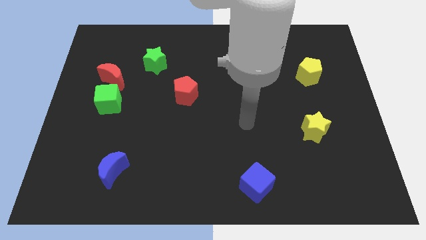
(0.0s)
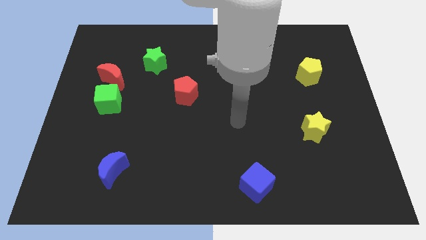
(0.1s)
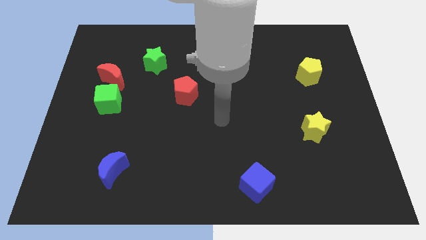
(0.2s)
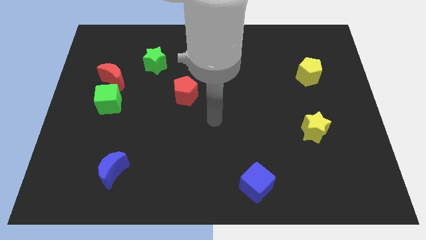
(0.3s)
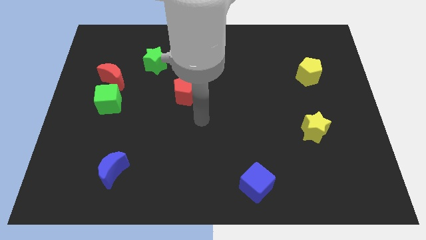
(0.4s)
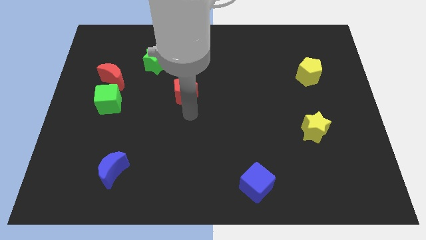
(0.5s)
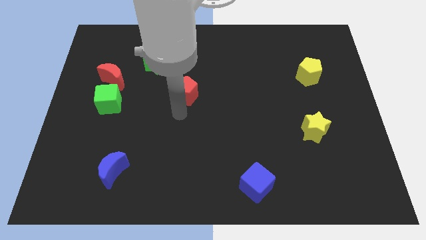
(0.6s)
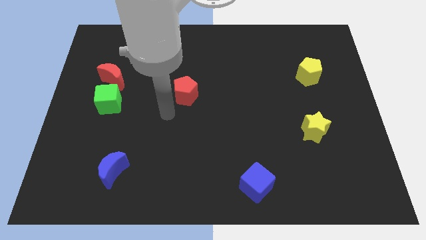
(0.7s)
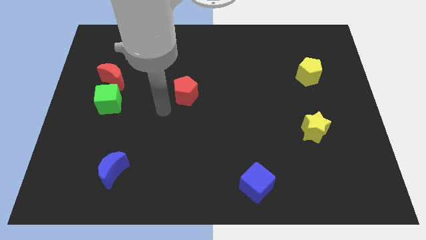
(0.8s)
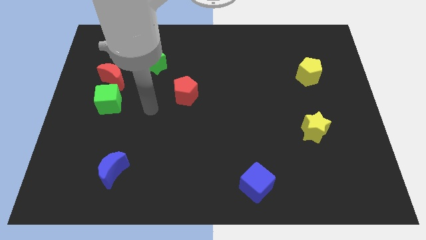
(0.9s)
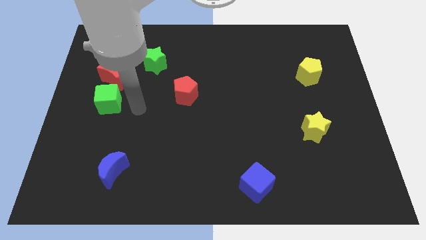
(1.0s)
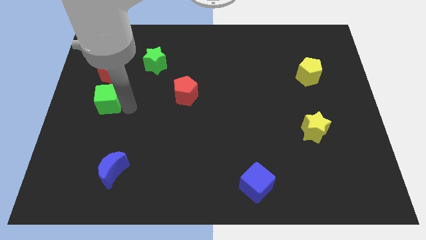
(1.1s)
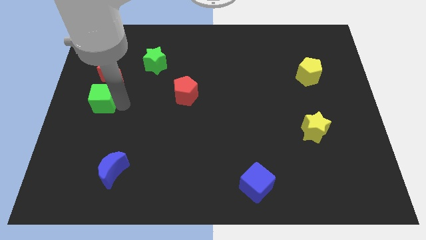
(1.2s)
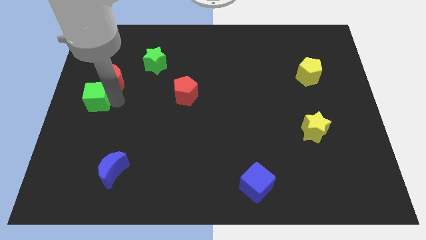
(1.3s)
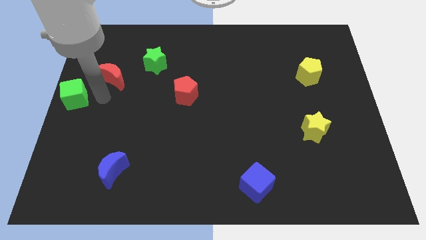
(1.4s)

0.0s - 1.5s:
separate the red moon from the green cube

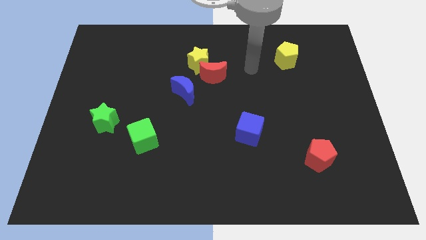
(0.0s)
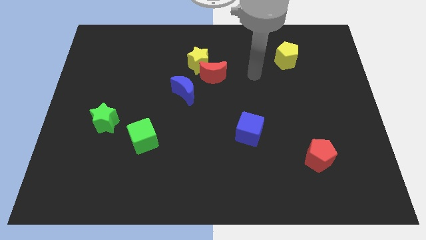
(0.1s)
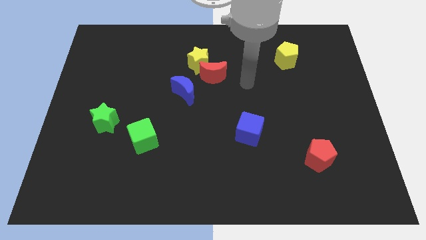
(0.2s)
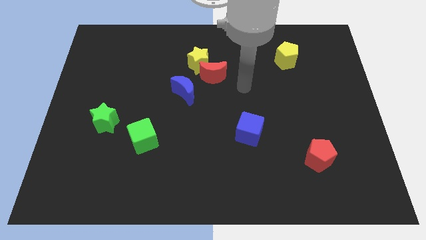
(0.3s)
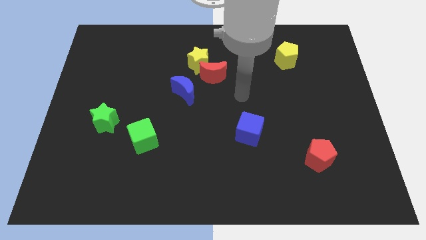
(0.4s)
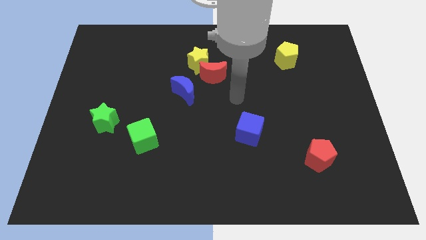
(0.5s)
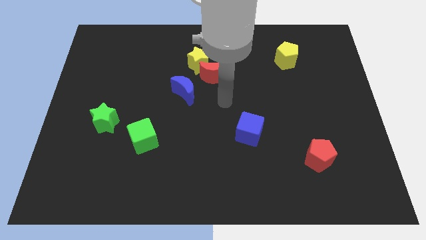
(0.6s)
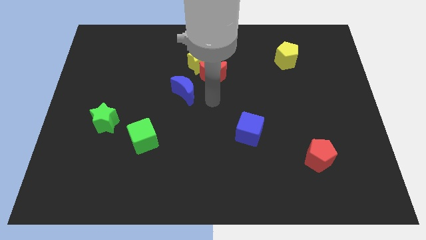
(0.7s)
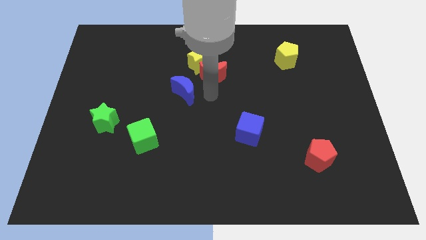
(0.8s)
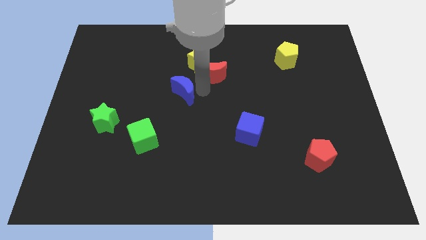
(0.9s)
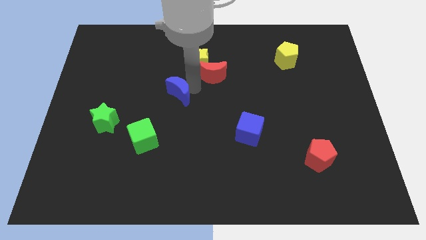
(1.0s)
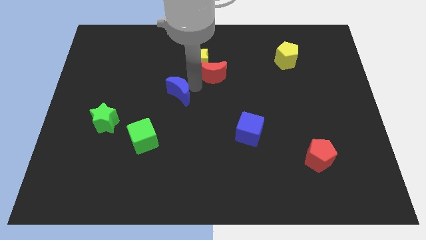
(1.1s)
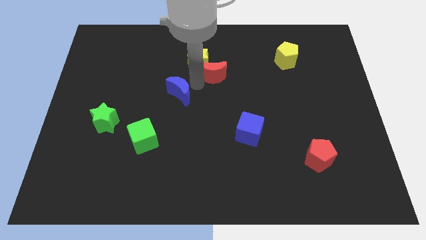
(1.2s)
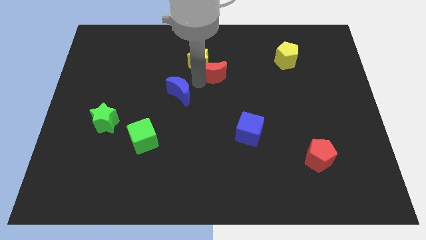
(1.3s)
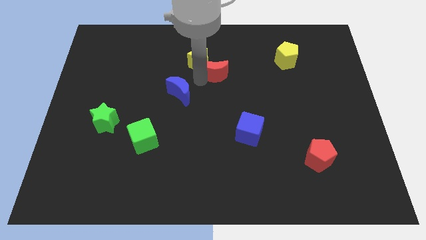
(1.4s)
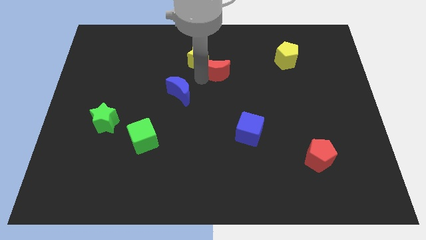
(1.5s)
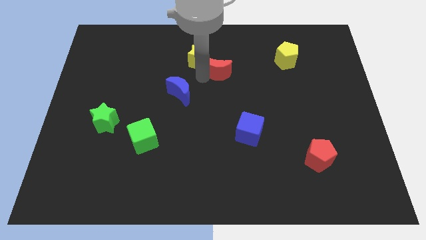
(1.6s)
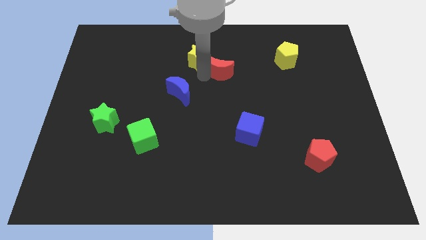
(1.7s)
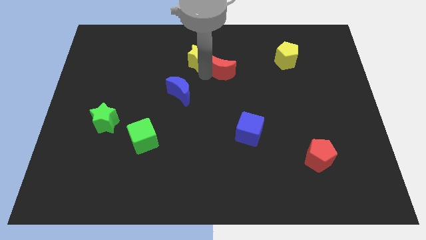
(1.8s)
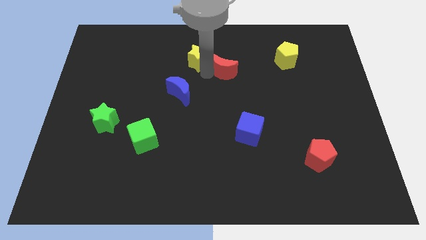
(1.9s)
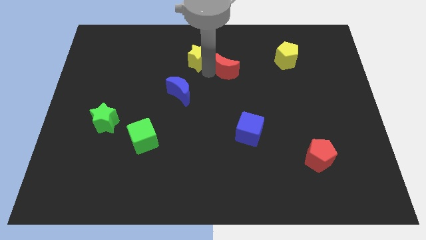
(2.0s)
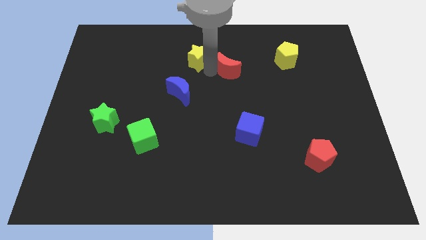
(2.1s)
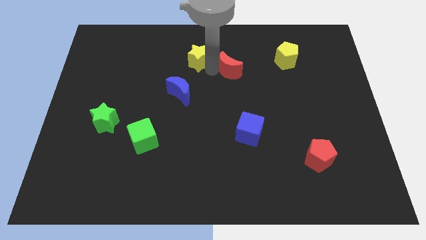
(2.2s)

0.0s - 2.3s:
move the red moon away from the yellow star and blue moon

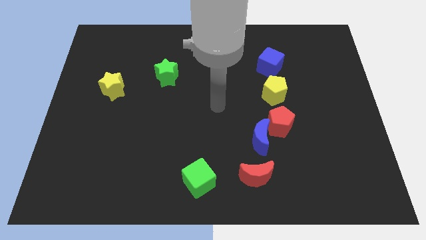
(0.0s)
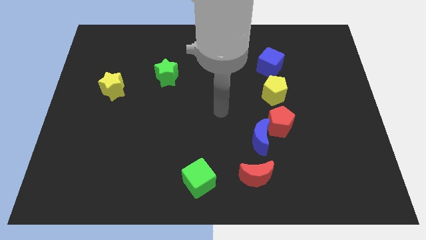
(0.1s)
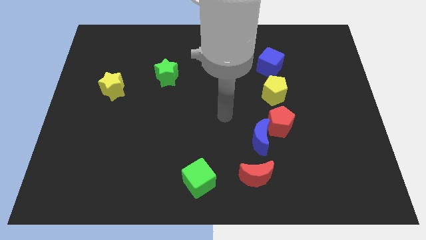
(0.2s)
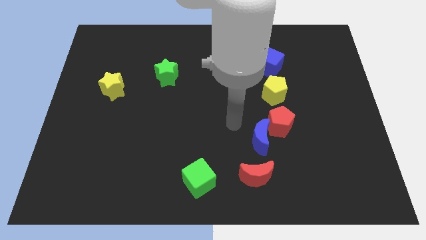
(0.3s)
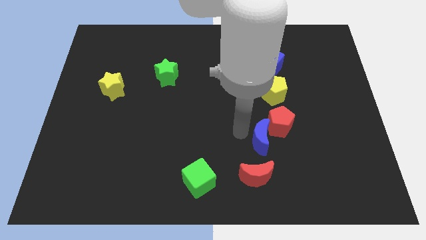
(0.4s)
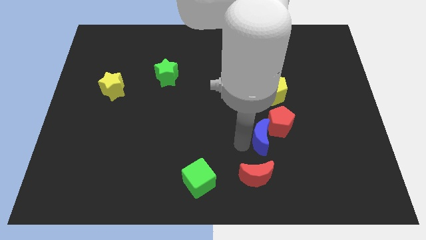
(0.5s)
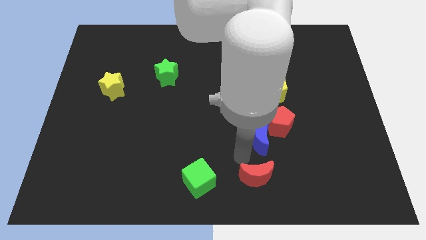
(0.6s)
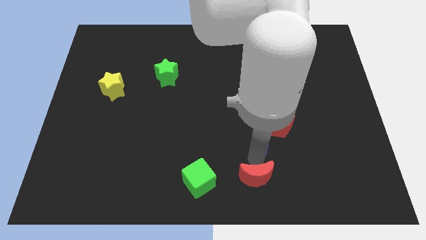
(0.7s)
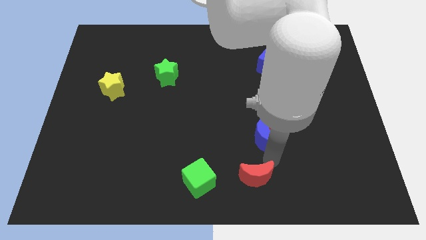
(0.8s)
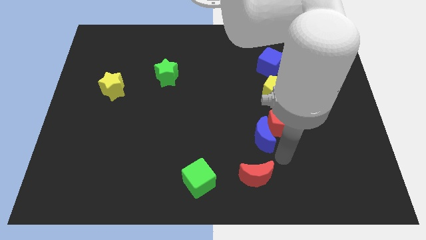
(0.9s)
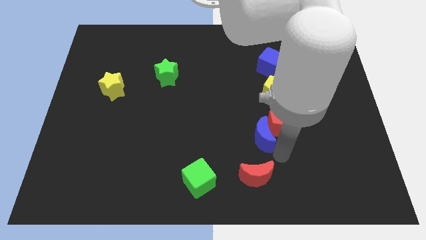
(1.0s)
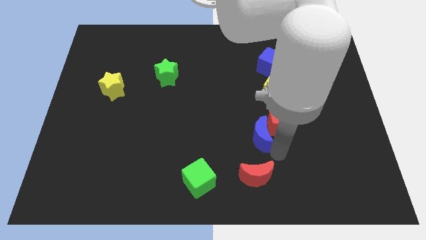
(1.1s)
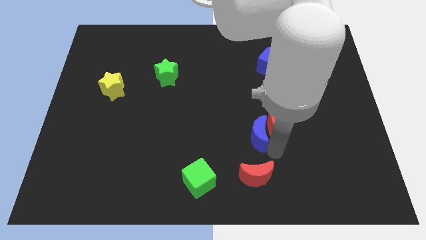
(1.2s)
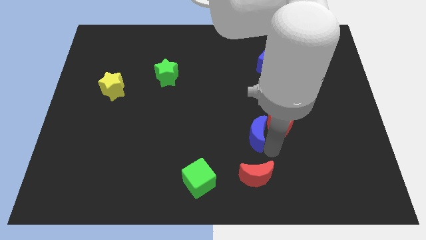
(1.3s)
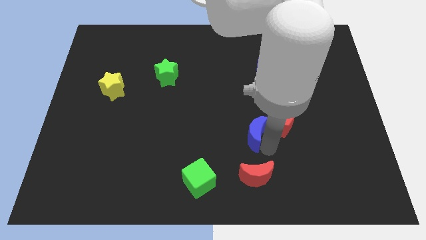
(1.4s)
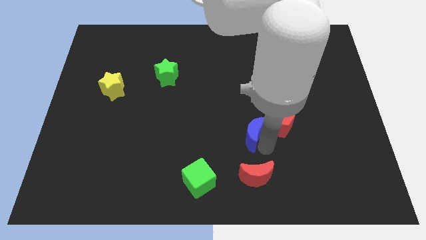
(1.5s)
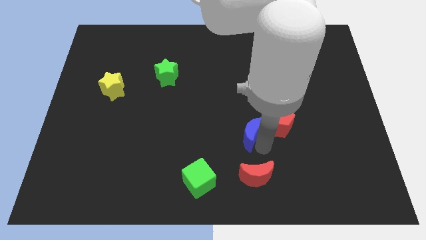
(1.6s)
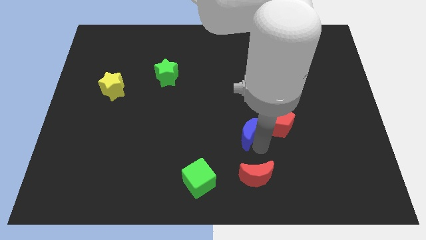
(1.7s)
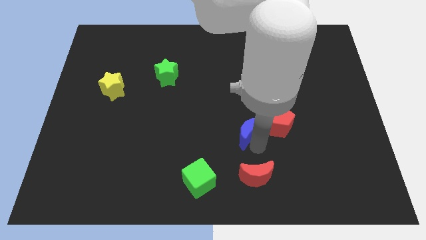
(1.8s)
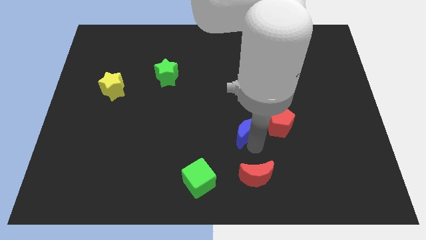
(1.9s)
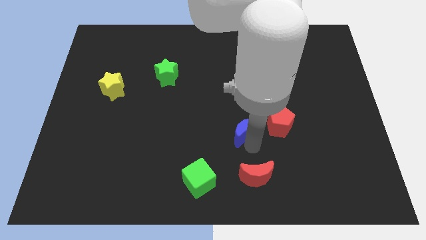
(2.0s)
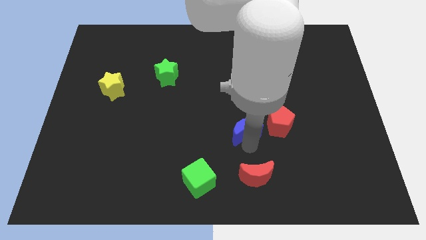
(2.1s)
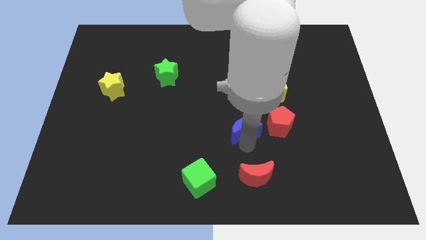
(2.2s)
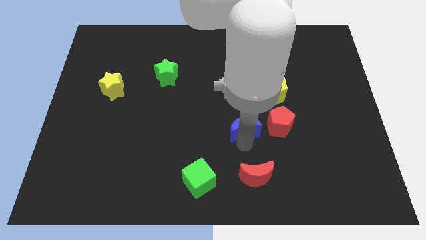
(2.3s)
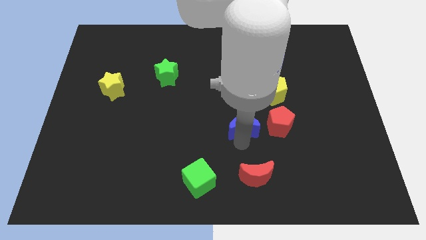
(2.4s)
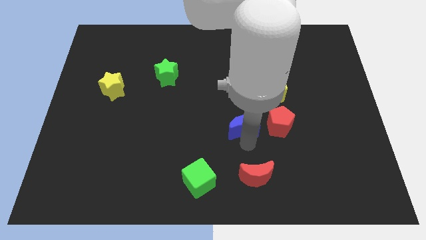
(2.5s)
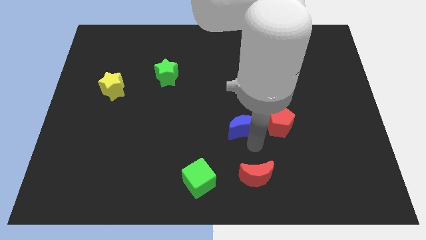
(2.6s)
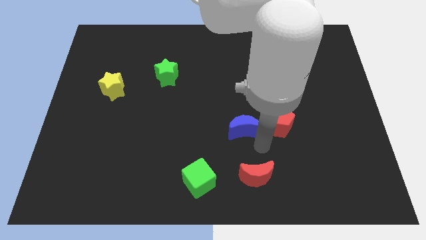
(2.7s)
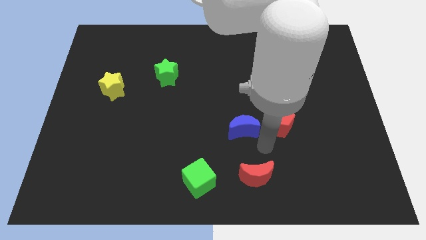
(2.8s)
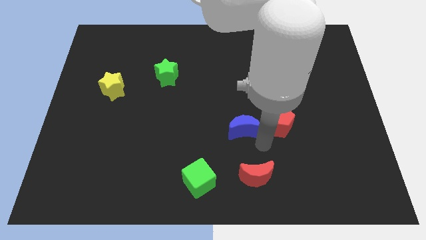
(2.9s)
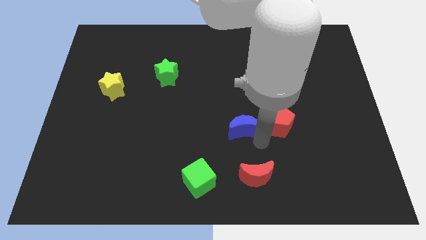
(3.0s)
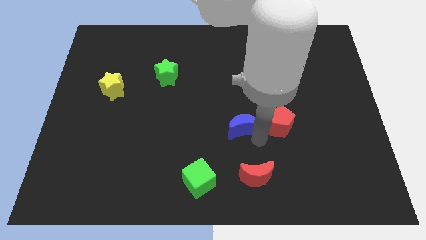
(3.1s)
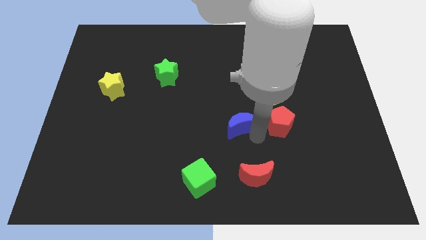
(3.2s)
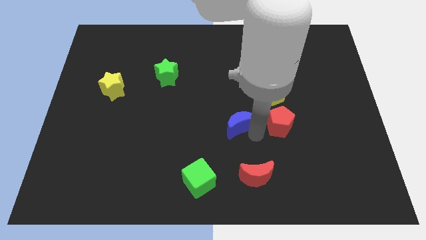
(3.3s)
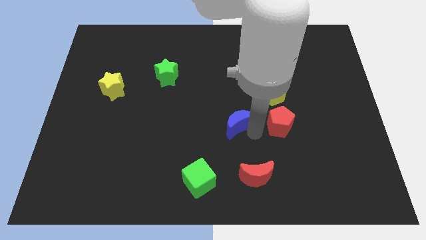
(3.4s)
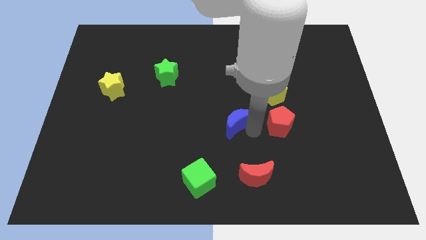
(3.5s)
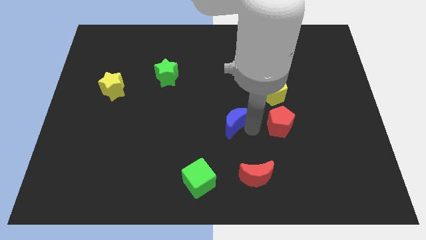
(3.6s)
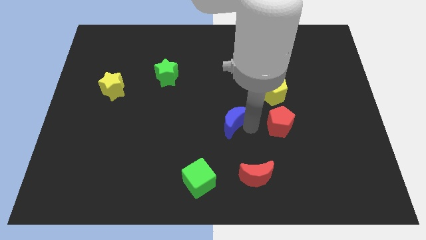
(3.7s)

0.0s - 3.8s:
move the blue moon away from the red pentagon and red moon

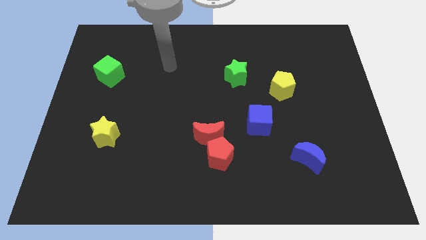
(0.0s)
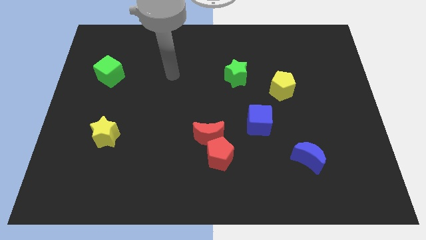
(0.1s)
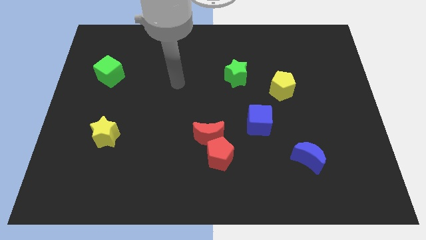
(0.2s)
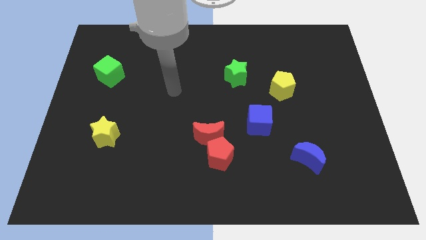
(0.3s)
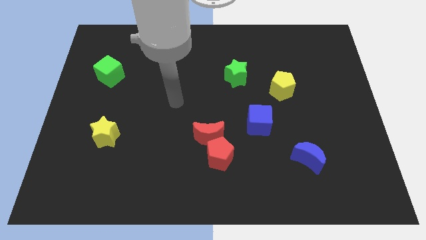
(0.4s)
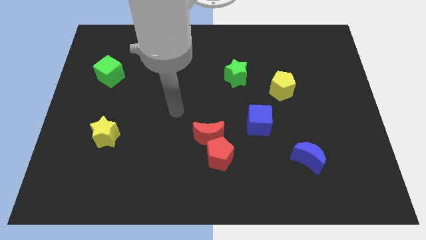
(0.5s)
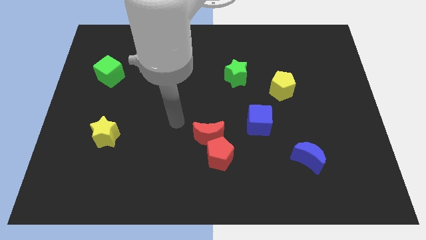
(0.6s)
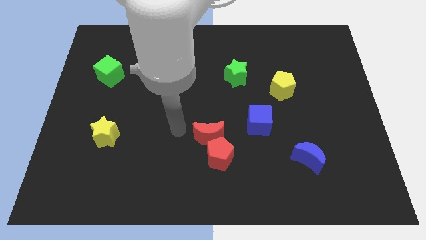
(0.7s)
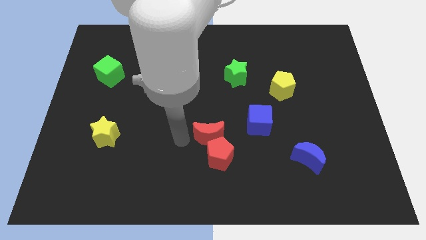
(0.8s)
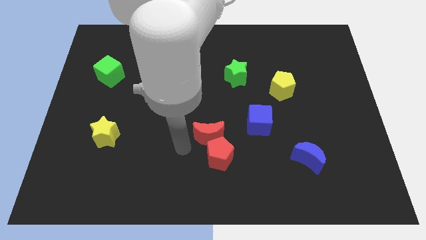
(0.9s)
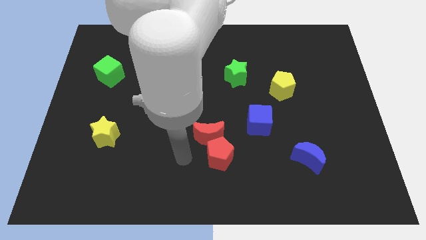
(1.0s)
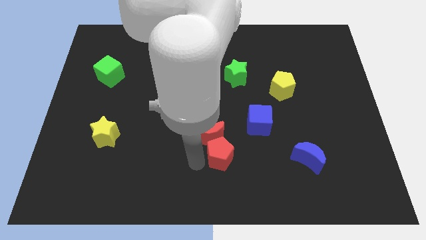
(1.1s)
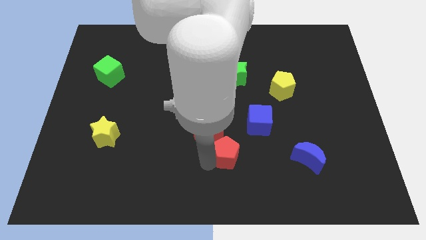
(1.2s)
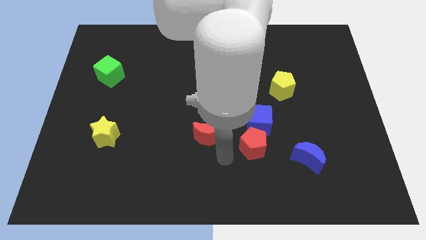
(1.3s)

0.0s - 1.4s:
pull the red moon apart from the red pentagon

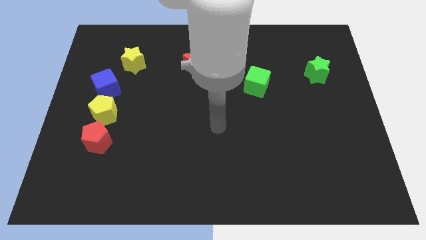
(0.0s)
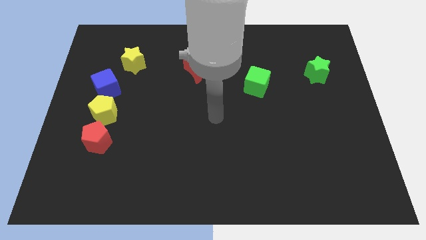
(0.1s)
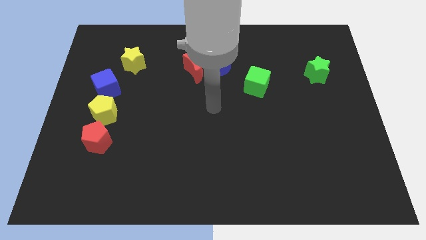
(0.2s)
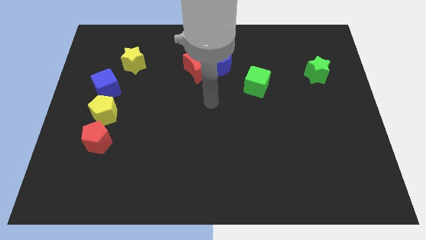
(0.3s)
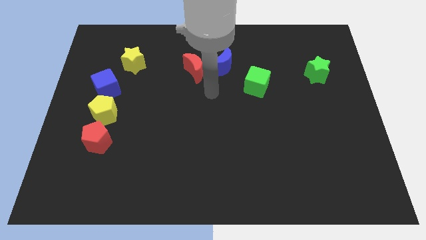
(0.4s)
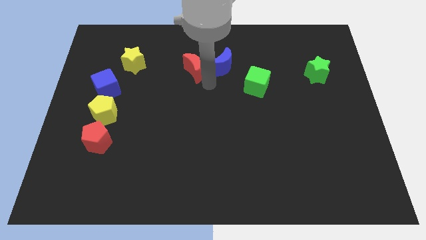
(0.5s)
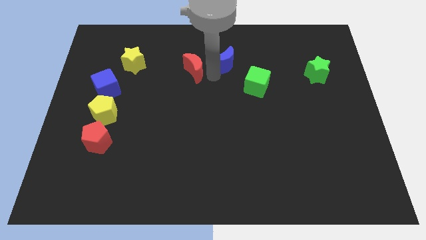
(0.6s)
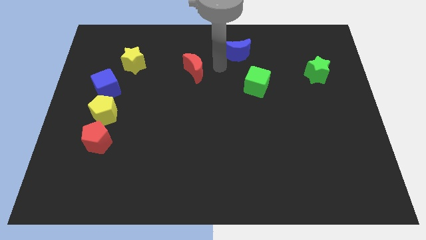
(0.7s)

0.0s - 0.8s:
pull the red moon apart from the blue moon
